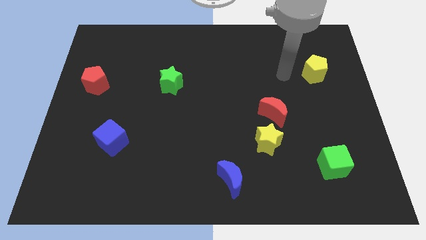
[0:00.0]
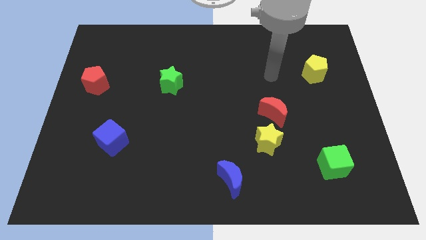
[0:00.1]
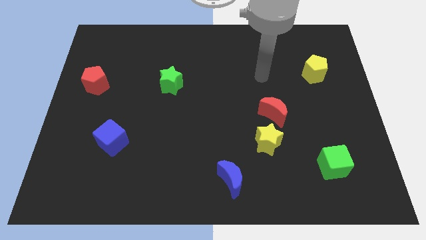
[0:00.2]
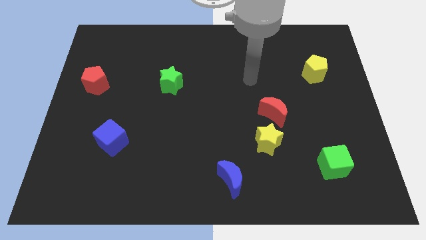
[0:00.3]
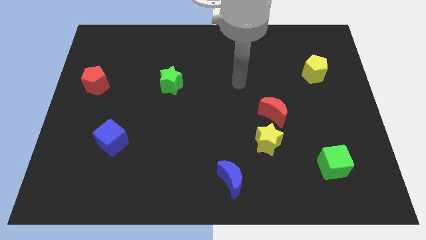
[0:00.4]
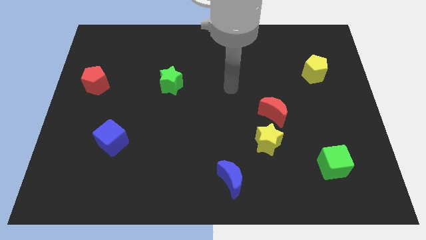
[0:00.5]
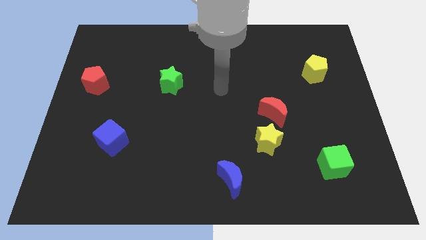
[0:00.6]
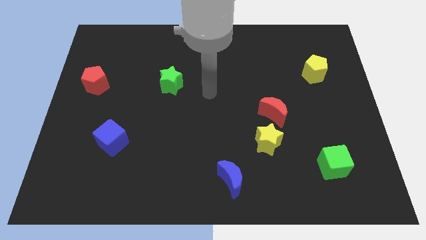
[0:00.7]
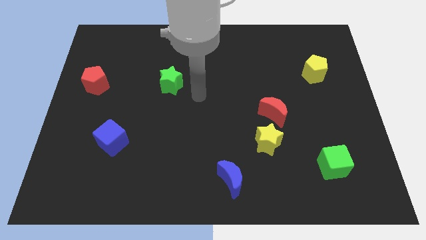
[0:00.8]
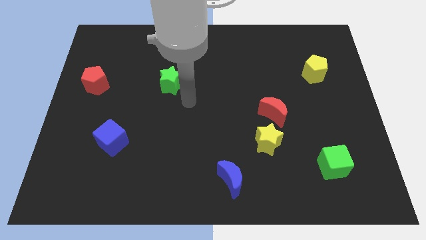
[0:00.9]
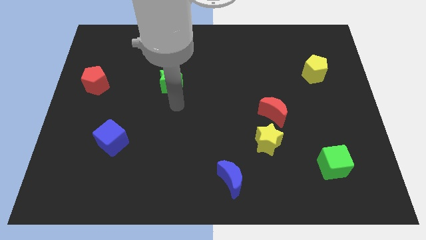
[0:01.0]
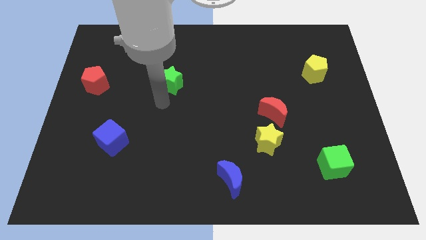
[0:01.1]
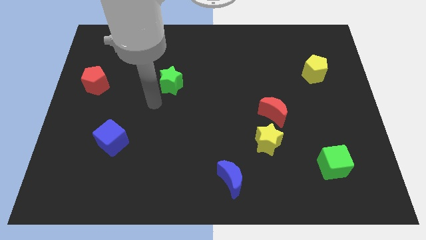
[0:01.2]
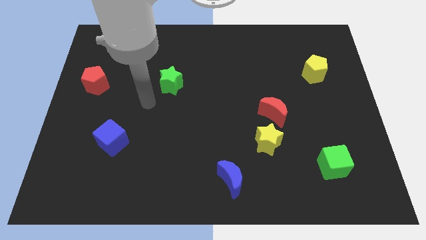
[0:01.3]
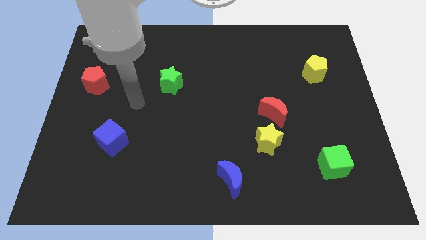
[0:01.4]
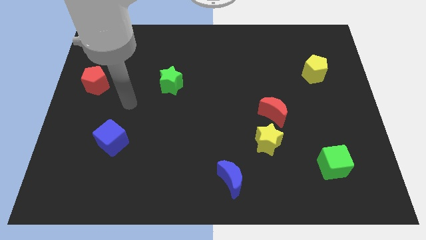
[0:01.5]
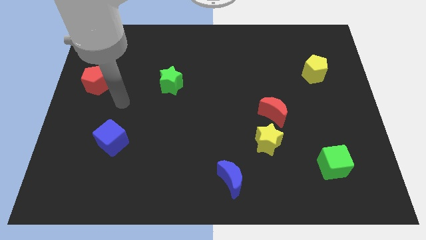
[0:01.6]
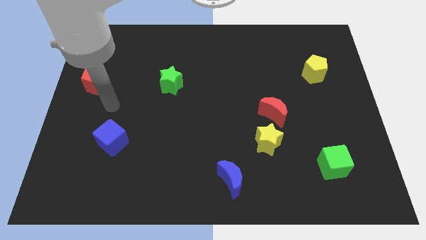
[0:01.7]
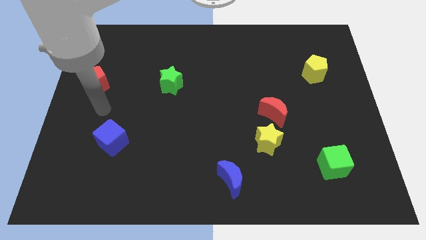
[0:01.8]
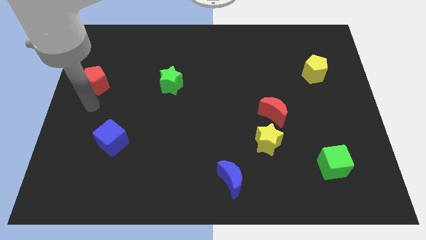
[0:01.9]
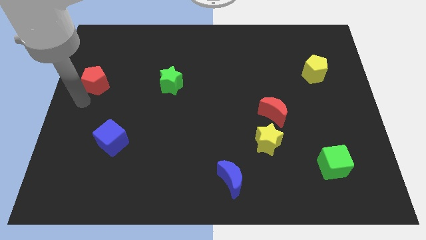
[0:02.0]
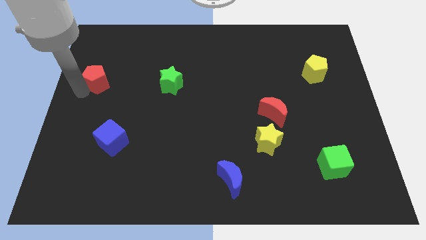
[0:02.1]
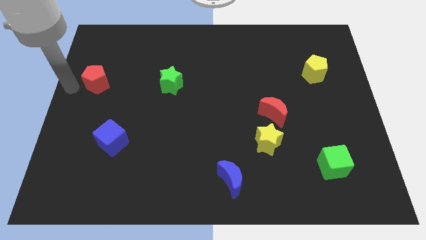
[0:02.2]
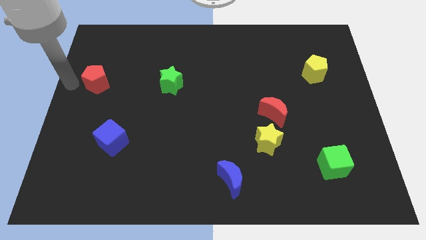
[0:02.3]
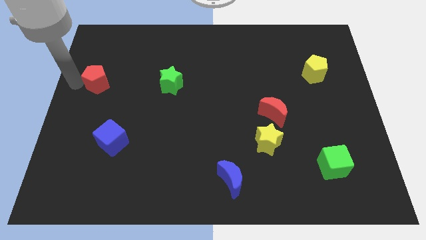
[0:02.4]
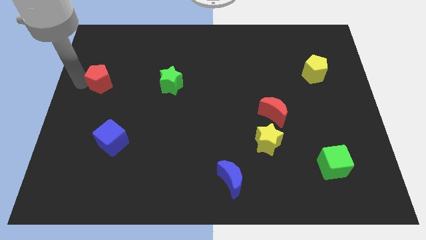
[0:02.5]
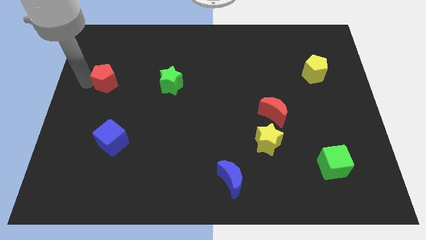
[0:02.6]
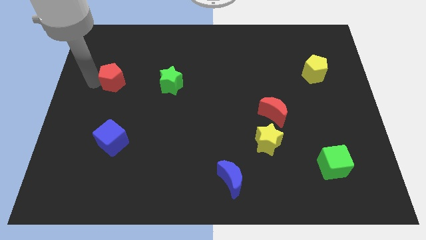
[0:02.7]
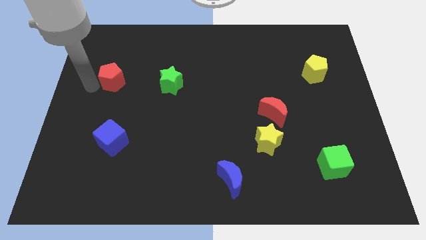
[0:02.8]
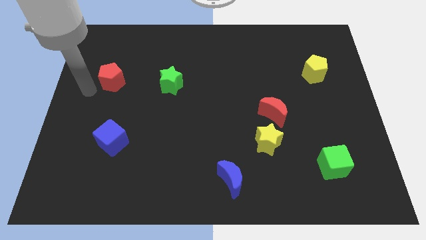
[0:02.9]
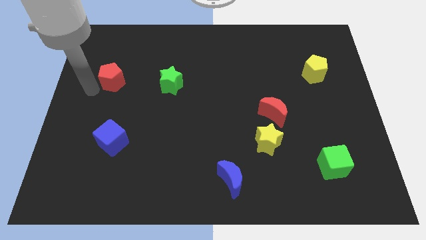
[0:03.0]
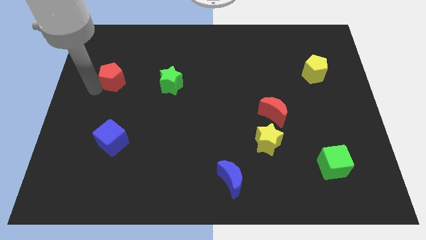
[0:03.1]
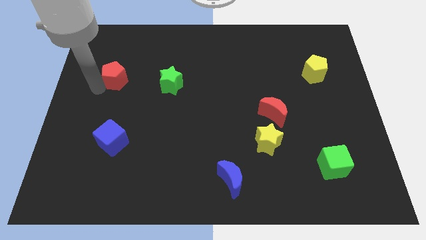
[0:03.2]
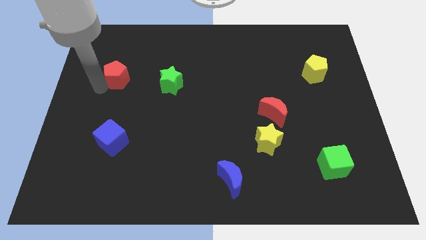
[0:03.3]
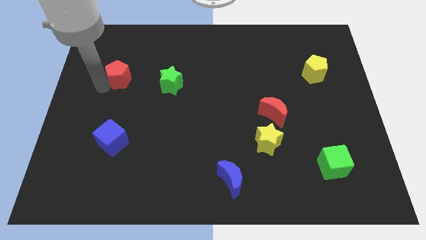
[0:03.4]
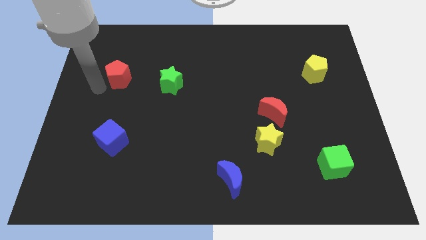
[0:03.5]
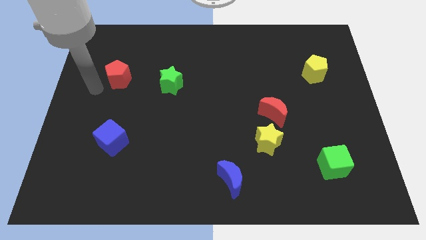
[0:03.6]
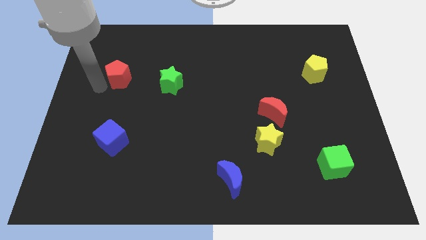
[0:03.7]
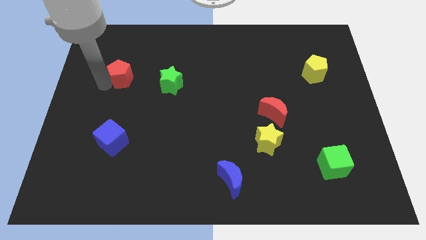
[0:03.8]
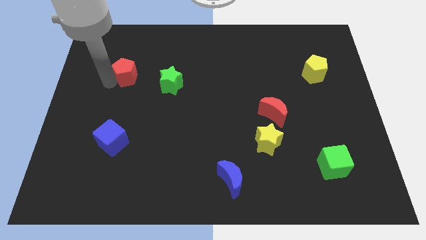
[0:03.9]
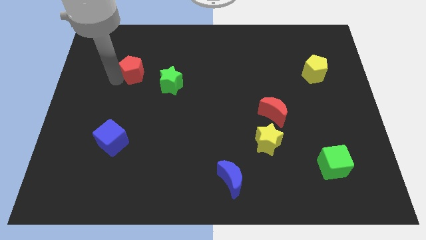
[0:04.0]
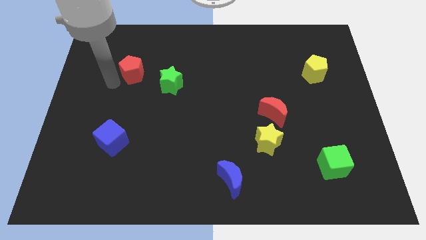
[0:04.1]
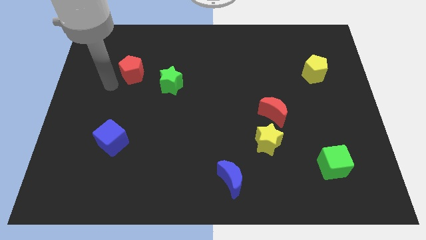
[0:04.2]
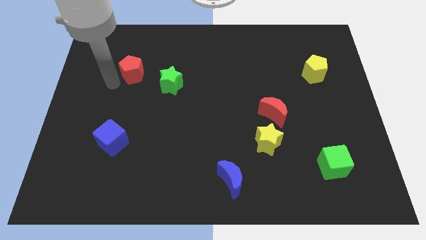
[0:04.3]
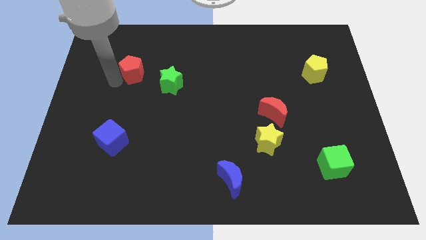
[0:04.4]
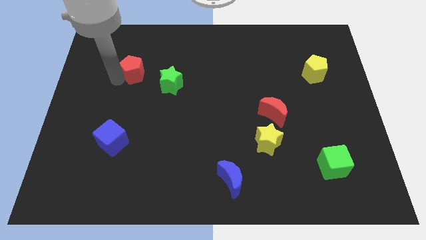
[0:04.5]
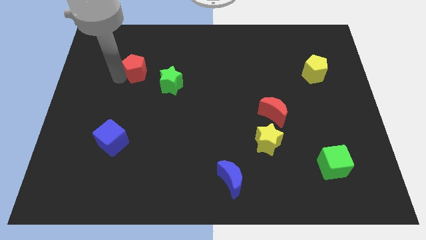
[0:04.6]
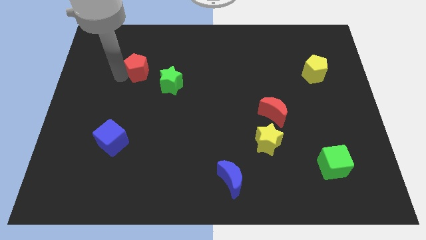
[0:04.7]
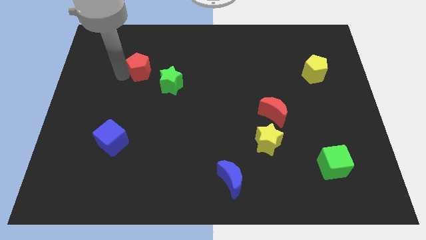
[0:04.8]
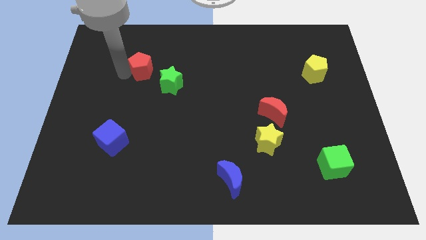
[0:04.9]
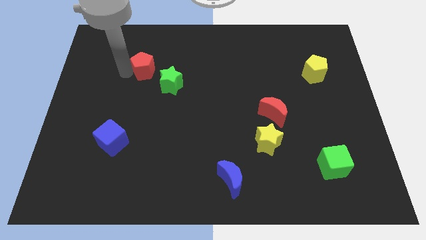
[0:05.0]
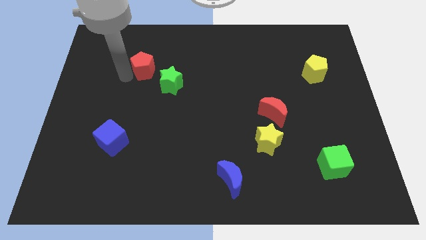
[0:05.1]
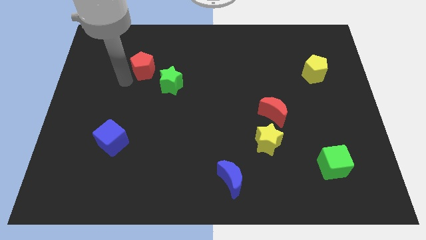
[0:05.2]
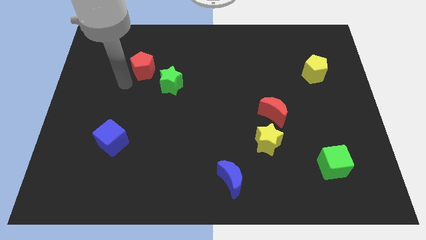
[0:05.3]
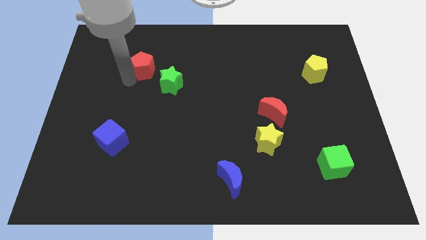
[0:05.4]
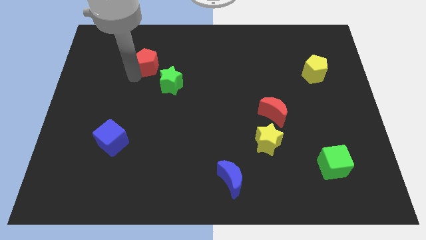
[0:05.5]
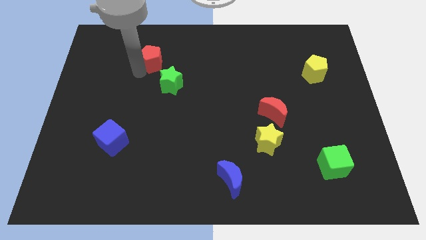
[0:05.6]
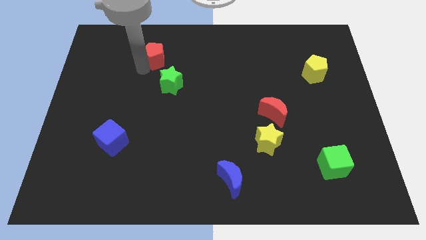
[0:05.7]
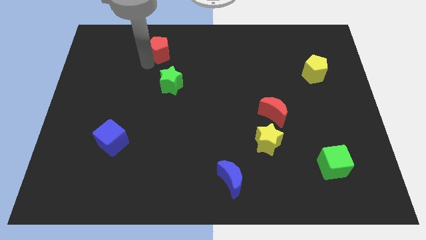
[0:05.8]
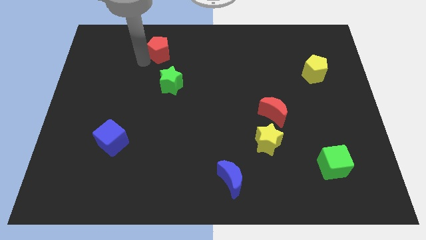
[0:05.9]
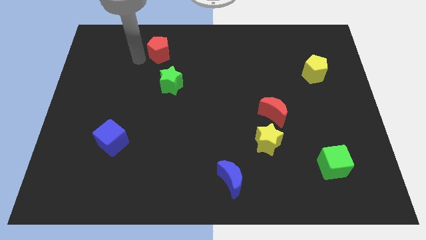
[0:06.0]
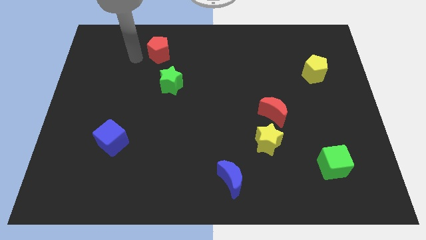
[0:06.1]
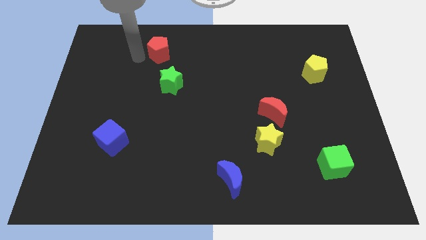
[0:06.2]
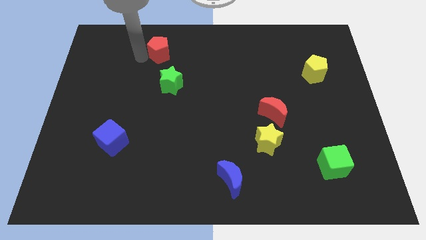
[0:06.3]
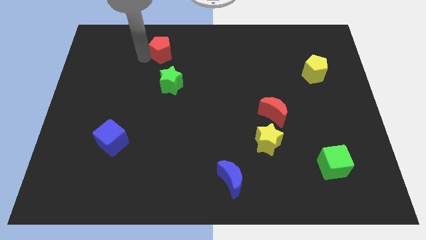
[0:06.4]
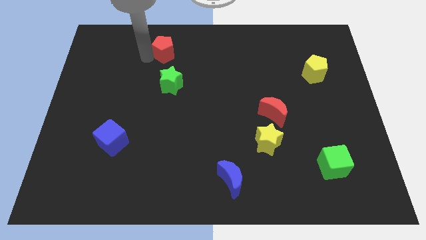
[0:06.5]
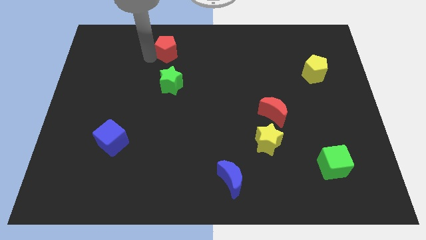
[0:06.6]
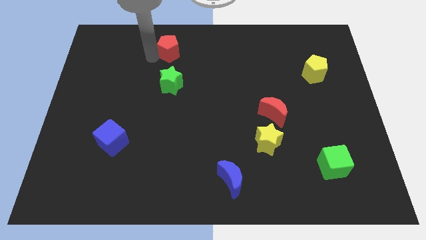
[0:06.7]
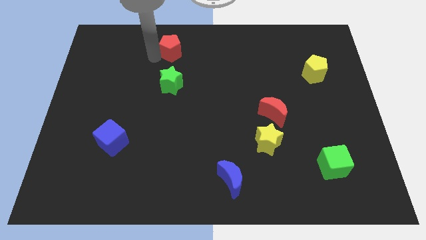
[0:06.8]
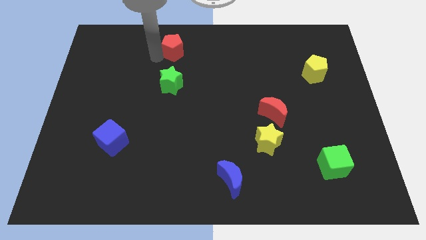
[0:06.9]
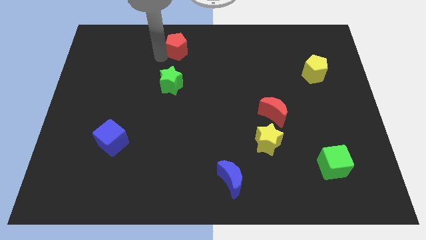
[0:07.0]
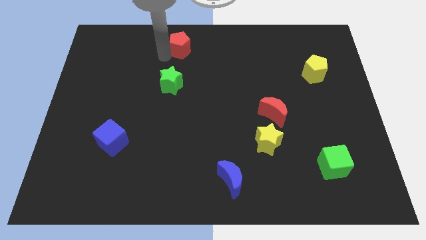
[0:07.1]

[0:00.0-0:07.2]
put the red pentagon to the top
